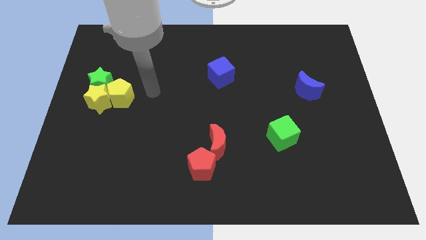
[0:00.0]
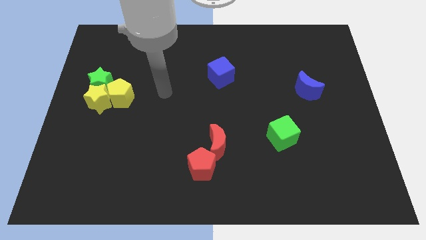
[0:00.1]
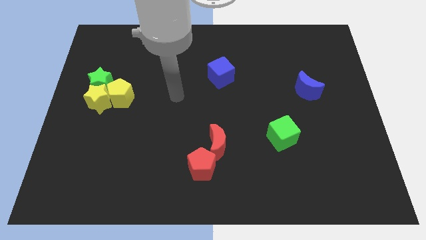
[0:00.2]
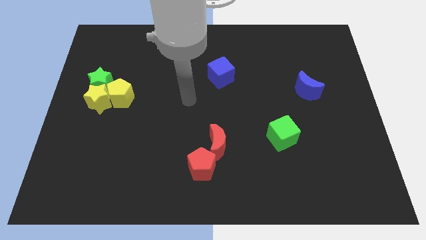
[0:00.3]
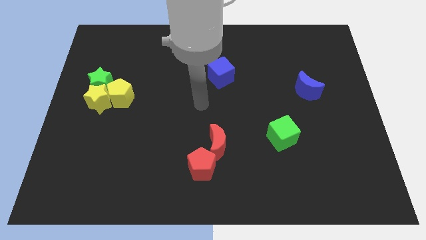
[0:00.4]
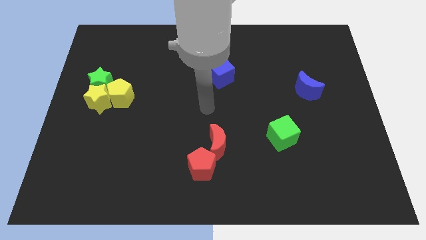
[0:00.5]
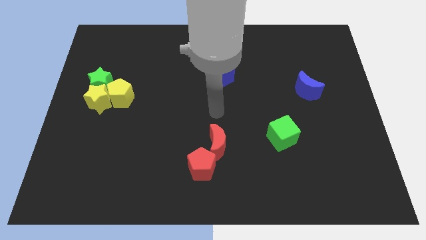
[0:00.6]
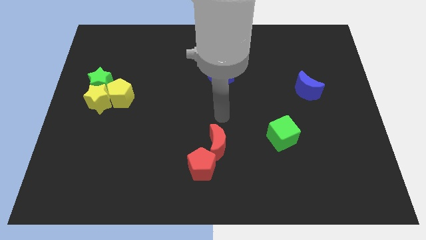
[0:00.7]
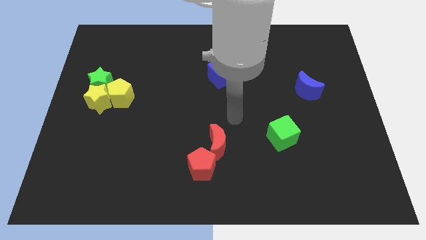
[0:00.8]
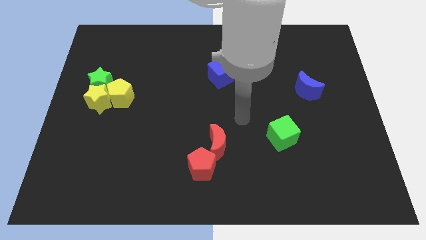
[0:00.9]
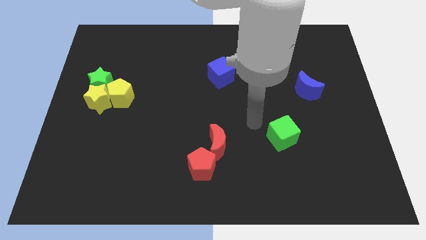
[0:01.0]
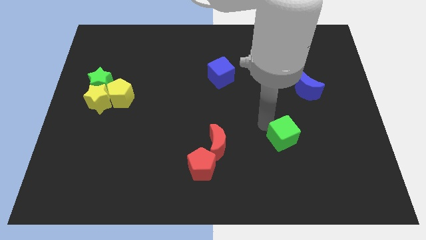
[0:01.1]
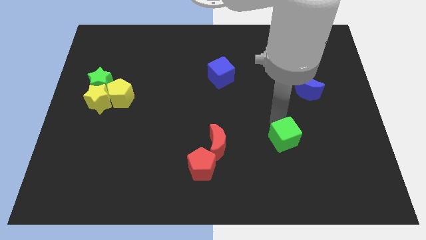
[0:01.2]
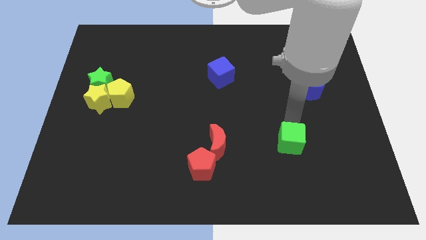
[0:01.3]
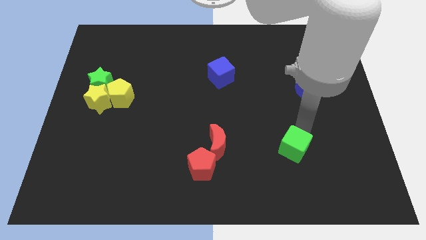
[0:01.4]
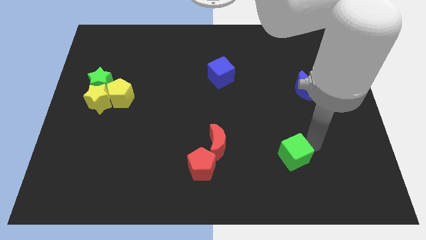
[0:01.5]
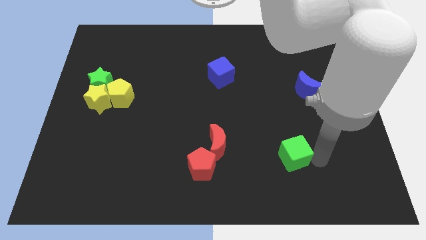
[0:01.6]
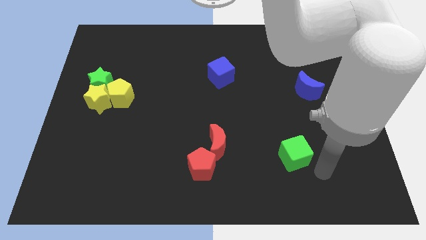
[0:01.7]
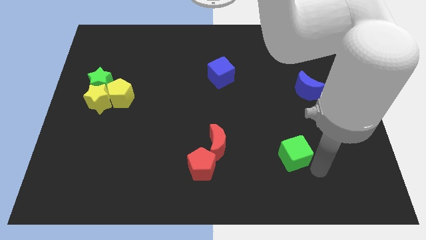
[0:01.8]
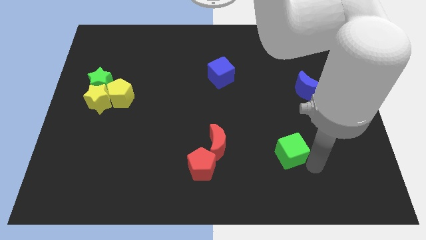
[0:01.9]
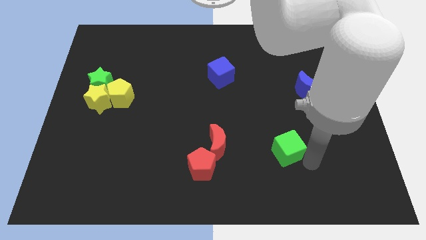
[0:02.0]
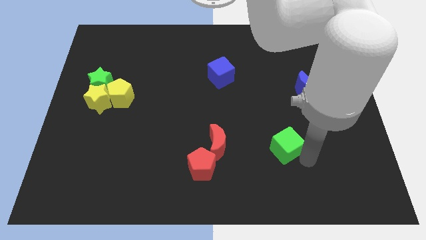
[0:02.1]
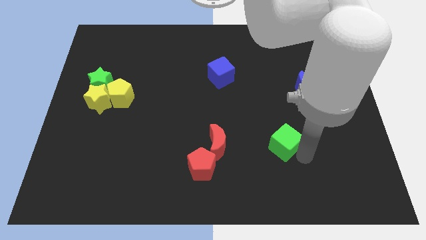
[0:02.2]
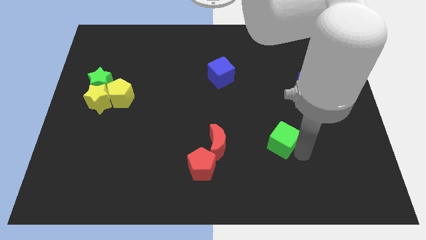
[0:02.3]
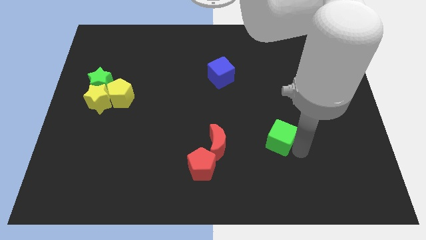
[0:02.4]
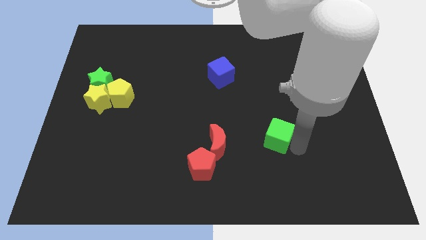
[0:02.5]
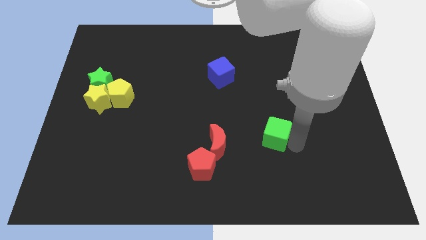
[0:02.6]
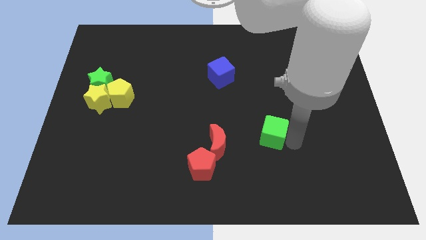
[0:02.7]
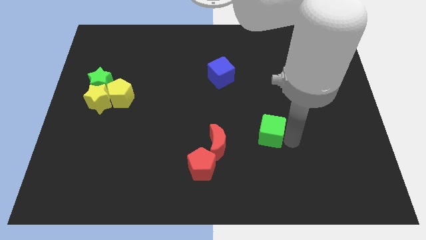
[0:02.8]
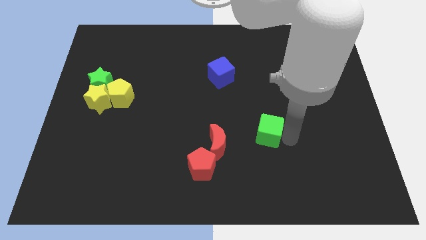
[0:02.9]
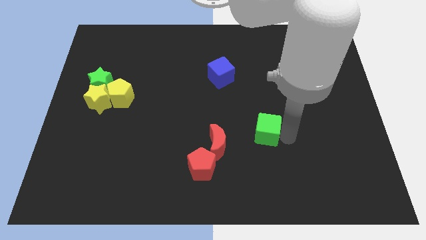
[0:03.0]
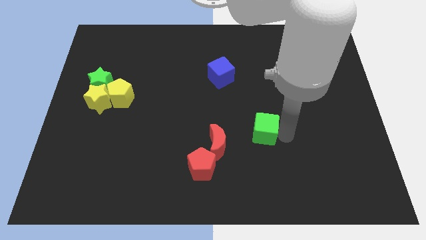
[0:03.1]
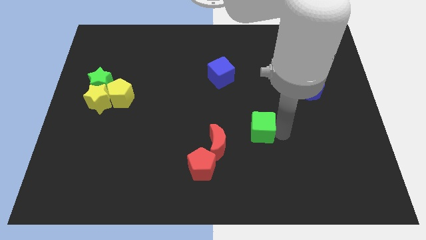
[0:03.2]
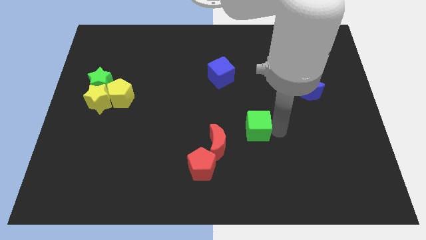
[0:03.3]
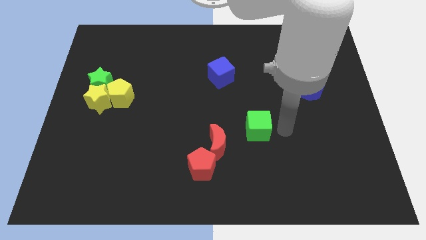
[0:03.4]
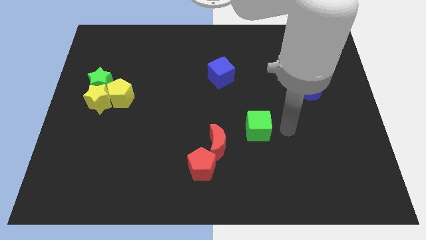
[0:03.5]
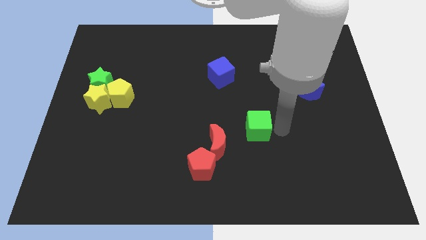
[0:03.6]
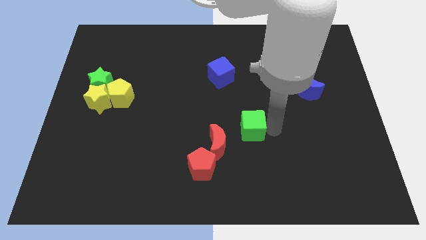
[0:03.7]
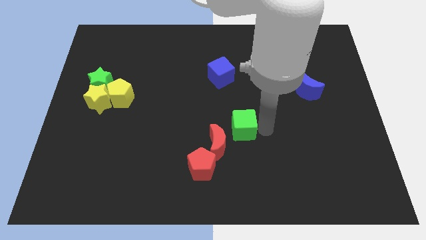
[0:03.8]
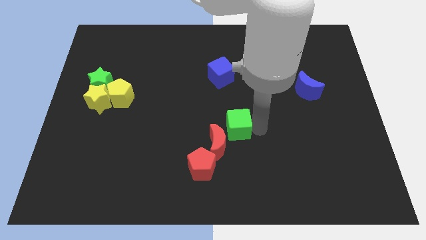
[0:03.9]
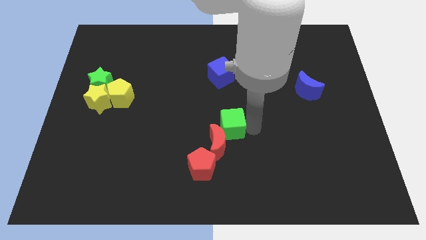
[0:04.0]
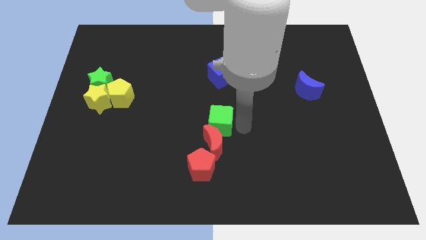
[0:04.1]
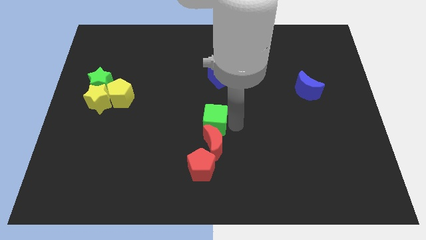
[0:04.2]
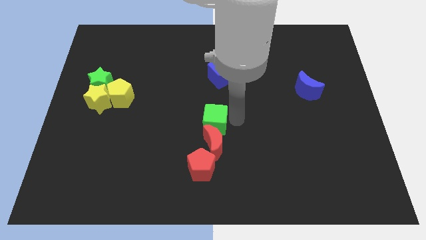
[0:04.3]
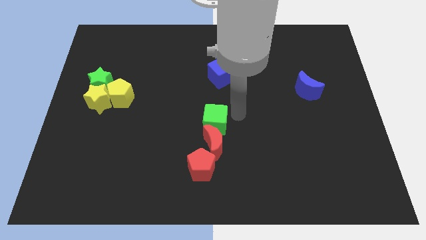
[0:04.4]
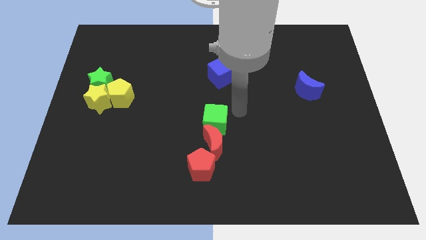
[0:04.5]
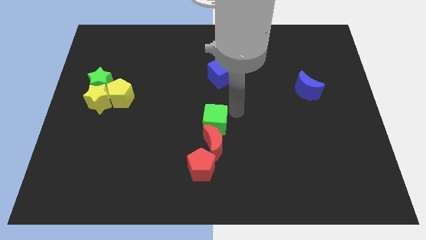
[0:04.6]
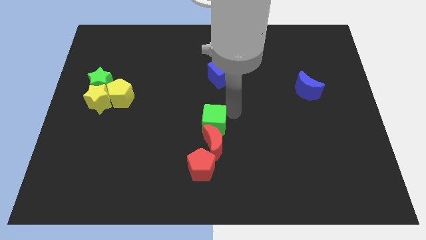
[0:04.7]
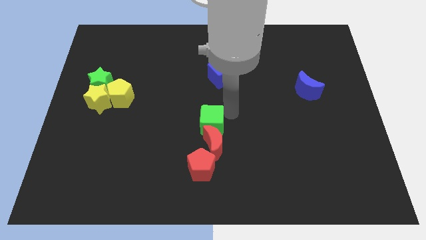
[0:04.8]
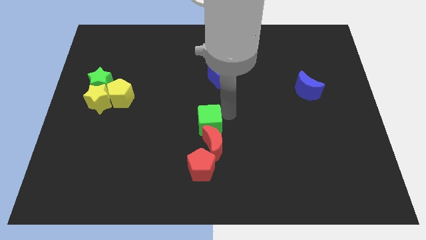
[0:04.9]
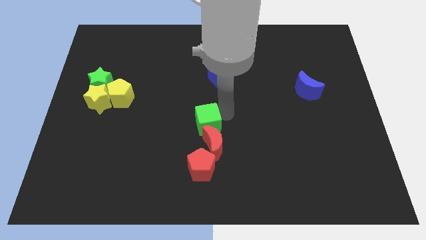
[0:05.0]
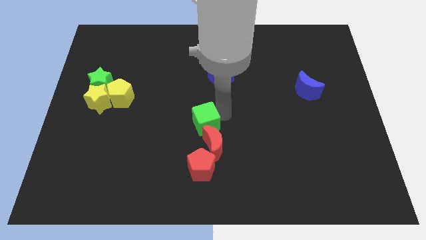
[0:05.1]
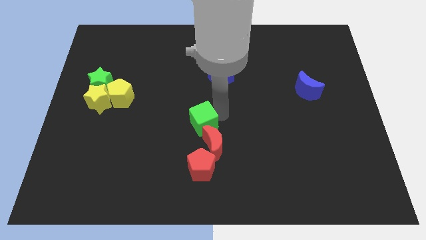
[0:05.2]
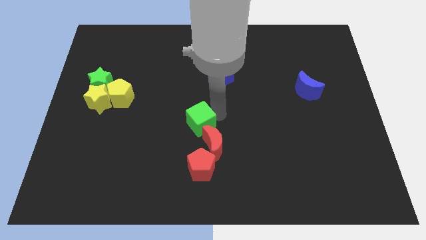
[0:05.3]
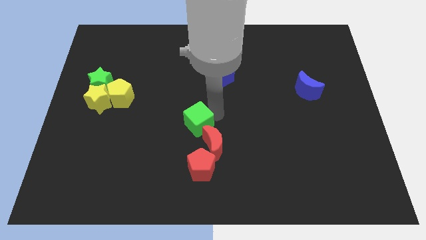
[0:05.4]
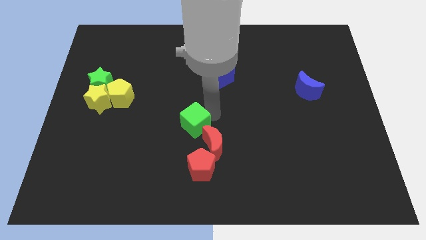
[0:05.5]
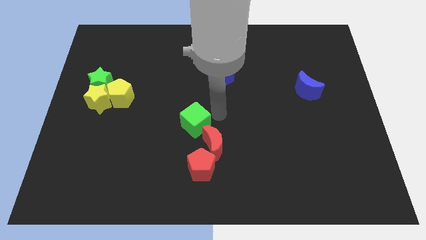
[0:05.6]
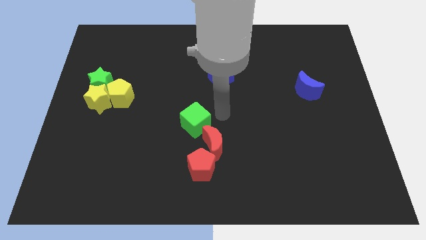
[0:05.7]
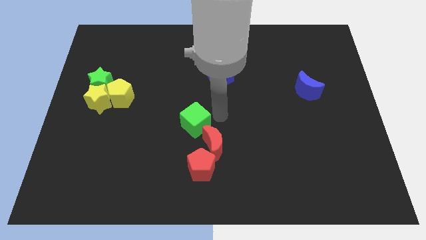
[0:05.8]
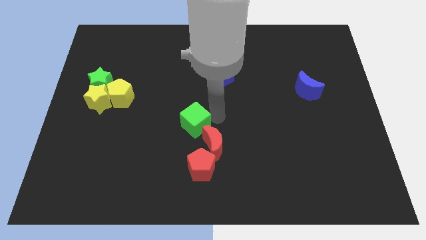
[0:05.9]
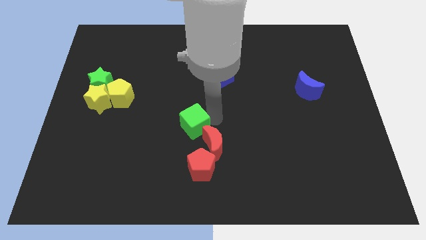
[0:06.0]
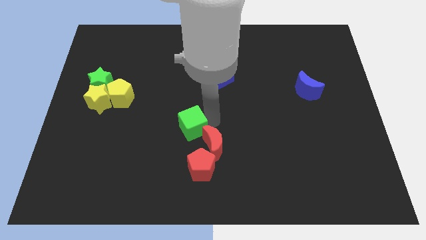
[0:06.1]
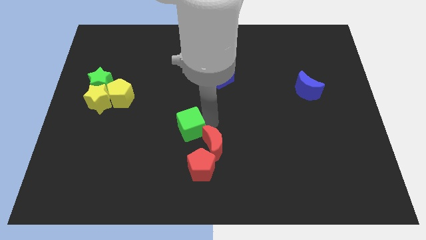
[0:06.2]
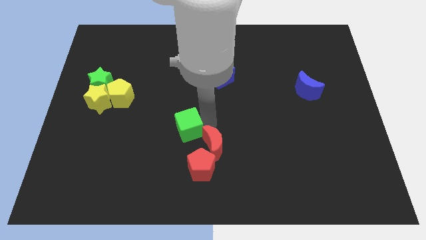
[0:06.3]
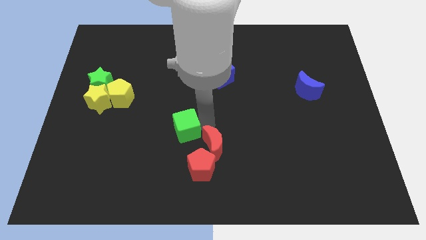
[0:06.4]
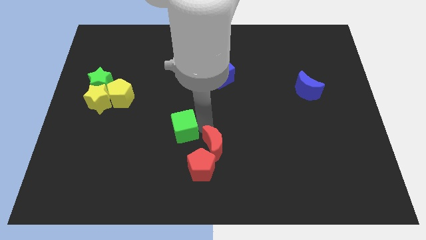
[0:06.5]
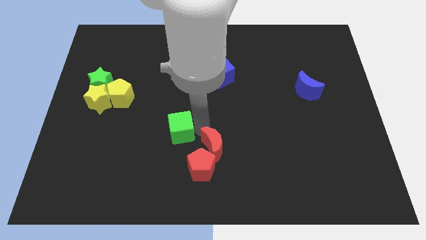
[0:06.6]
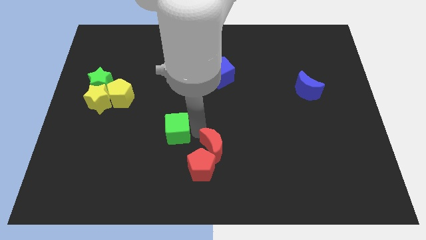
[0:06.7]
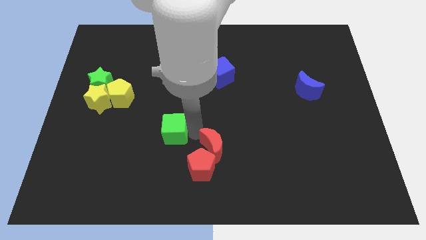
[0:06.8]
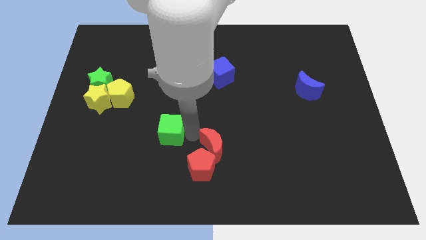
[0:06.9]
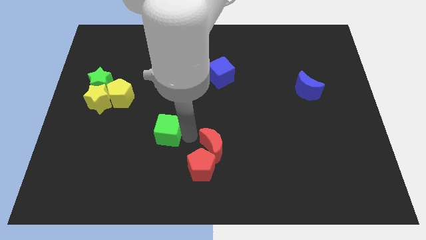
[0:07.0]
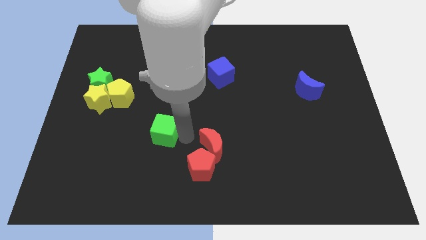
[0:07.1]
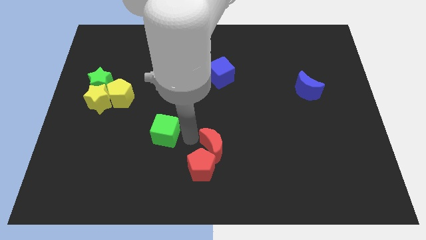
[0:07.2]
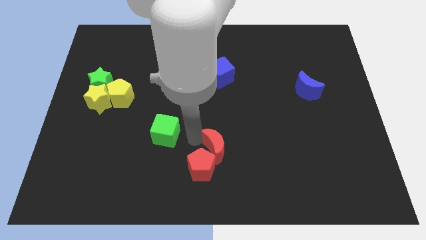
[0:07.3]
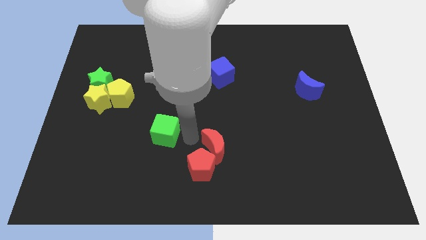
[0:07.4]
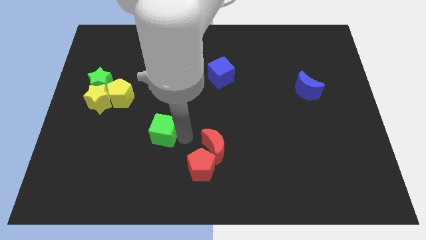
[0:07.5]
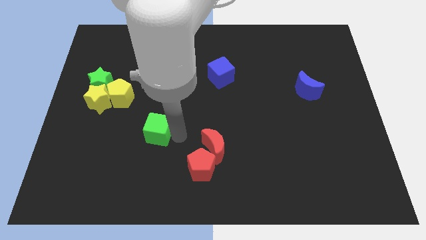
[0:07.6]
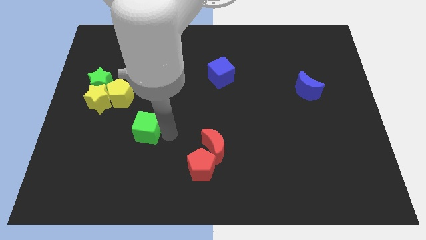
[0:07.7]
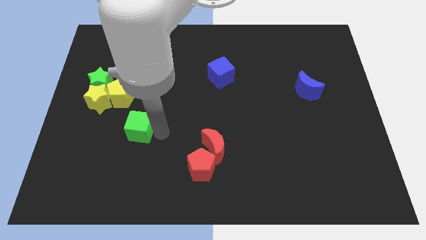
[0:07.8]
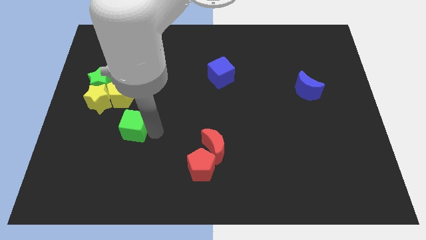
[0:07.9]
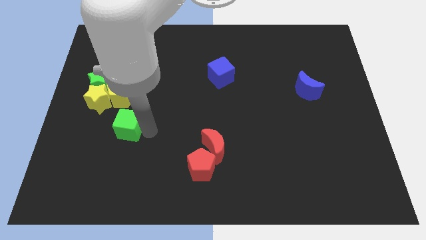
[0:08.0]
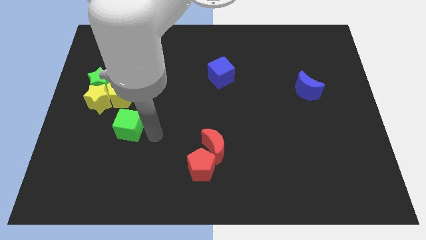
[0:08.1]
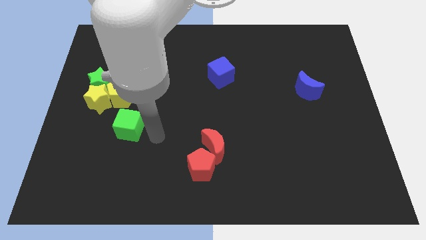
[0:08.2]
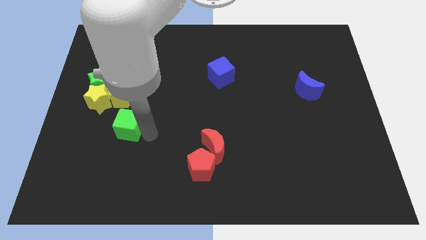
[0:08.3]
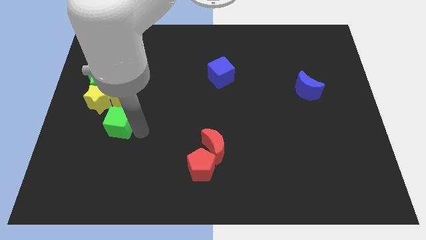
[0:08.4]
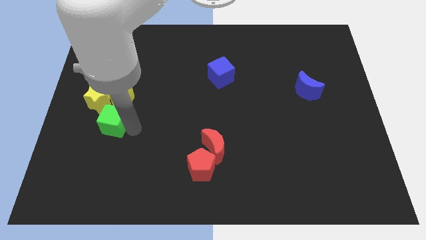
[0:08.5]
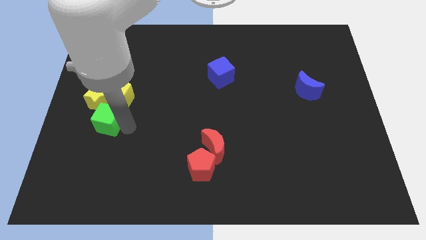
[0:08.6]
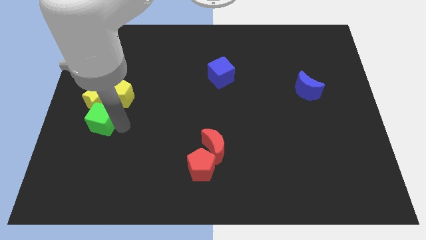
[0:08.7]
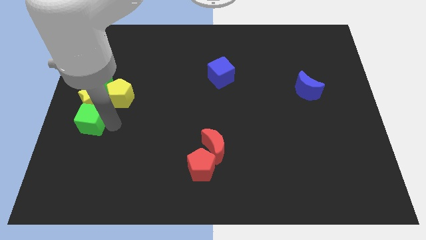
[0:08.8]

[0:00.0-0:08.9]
slide the green cube to the center left
